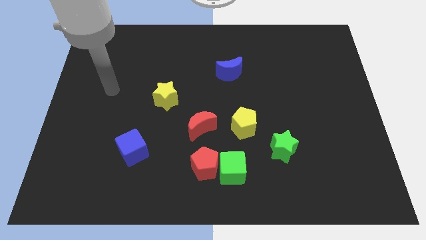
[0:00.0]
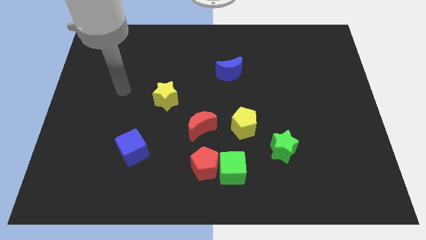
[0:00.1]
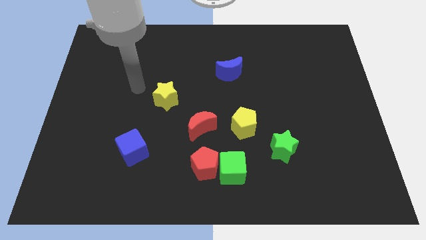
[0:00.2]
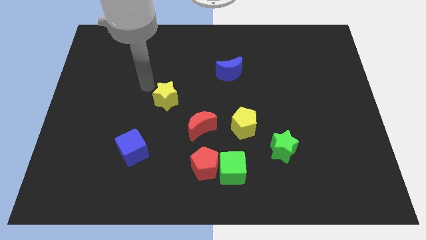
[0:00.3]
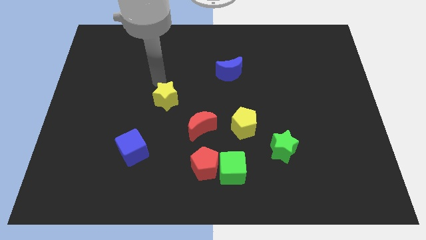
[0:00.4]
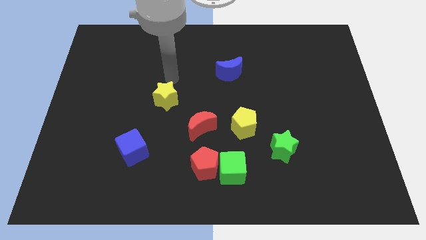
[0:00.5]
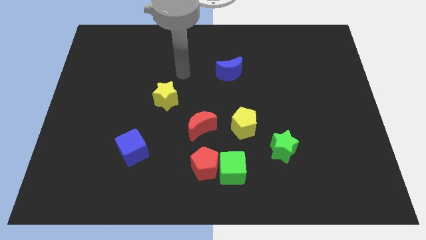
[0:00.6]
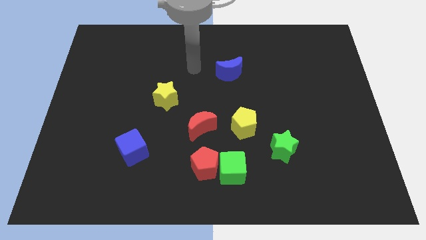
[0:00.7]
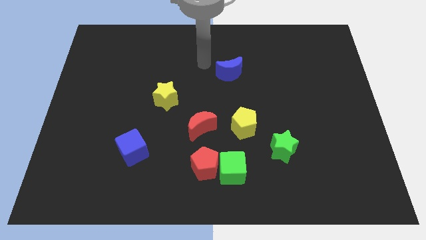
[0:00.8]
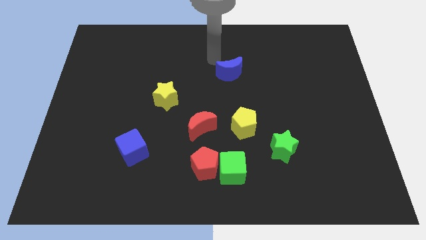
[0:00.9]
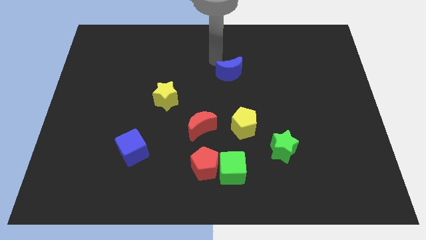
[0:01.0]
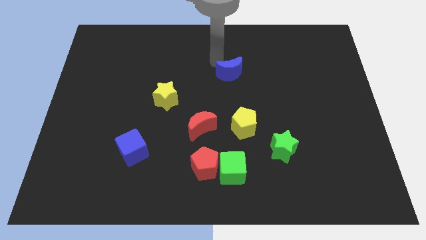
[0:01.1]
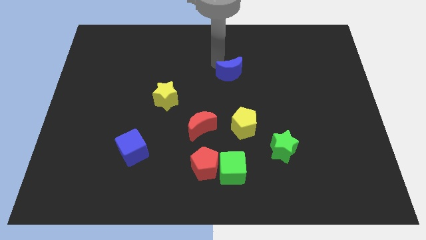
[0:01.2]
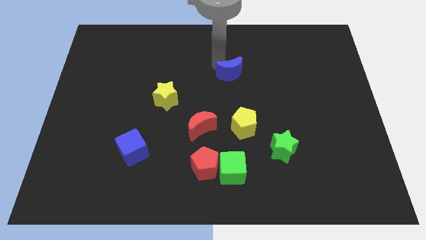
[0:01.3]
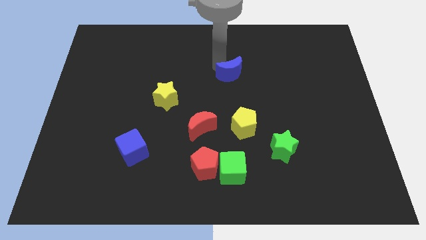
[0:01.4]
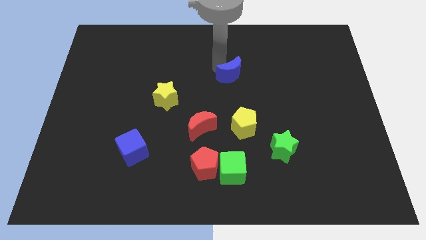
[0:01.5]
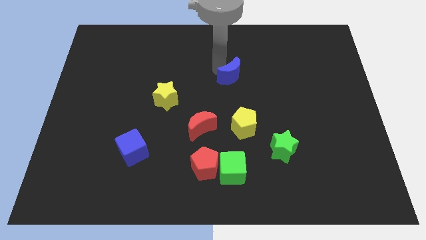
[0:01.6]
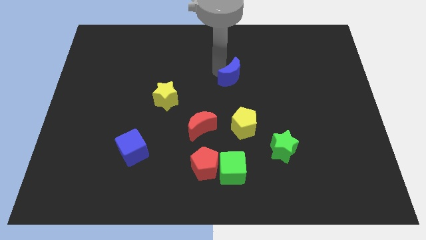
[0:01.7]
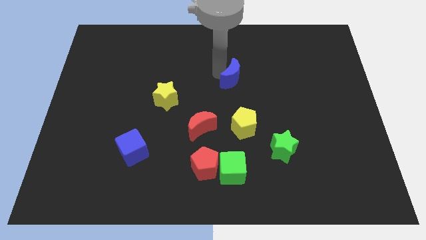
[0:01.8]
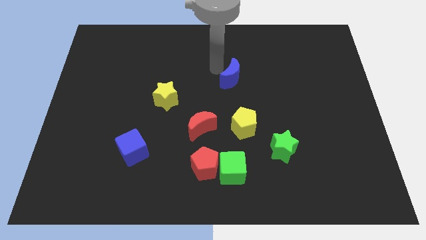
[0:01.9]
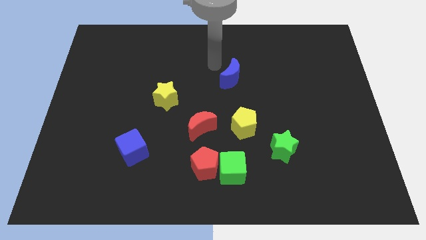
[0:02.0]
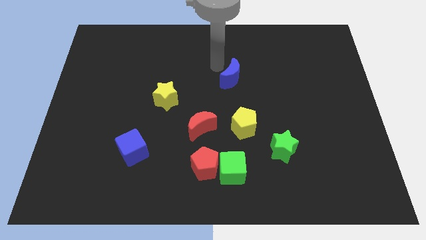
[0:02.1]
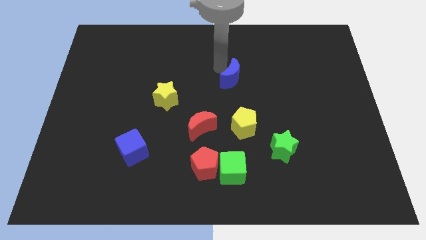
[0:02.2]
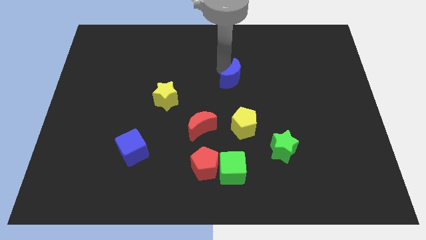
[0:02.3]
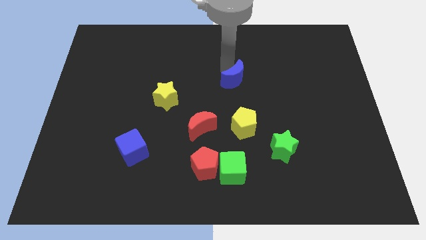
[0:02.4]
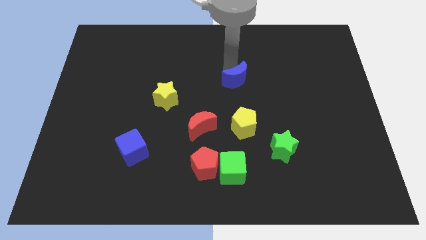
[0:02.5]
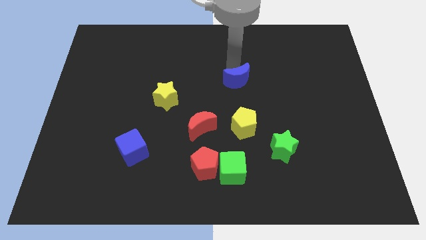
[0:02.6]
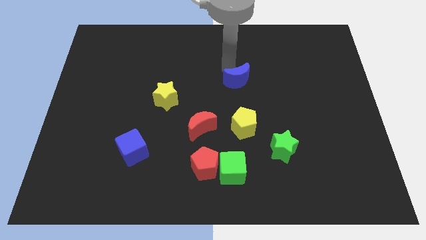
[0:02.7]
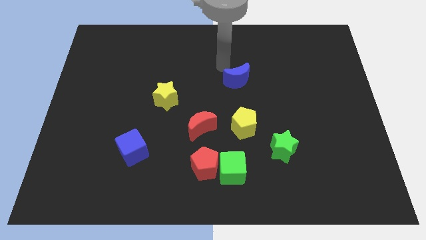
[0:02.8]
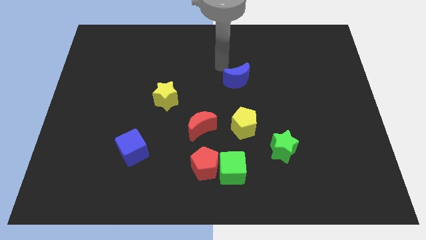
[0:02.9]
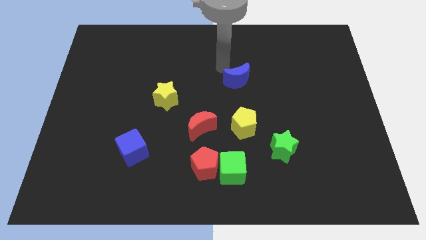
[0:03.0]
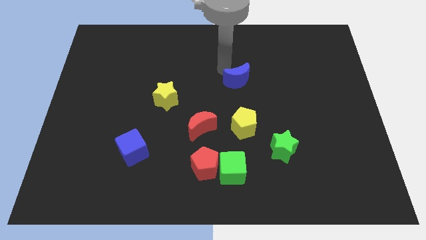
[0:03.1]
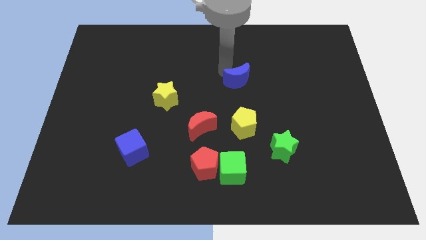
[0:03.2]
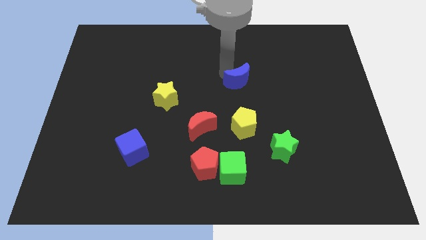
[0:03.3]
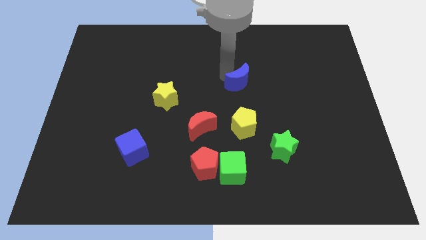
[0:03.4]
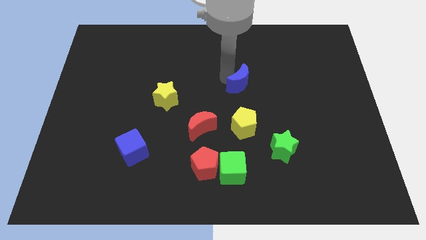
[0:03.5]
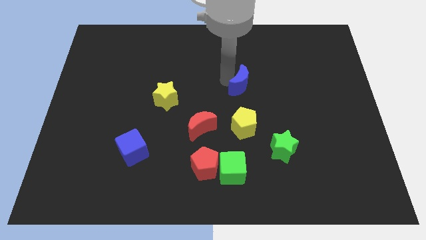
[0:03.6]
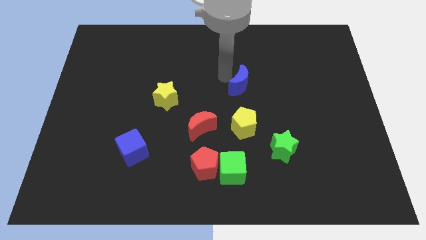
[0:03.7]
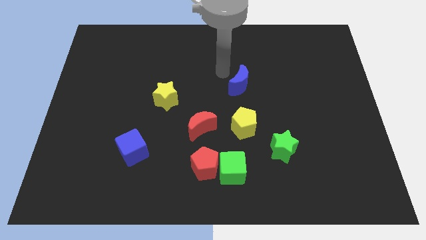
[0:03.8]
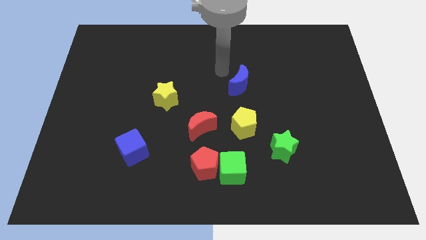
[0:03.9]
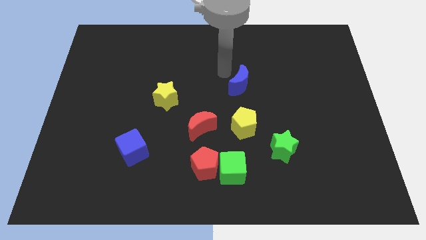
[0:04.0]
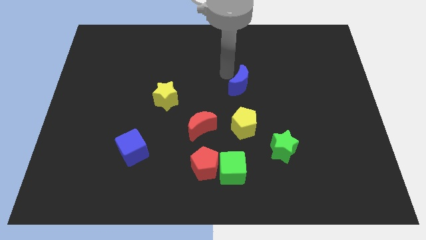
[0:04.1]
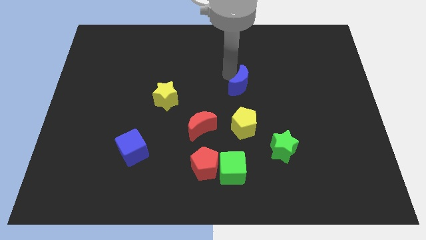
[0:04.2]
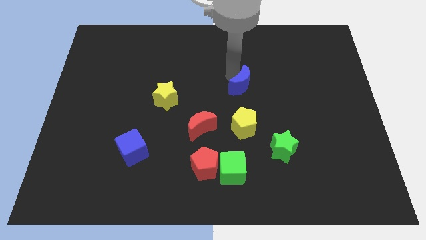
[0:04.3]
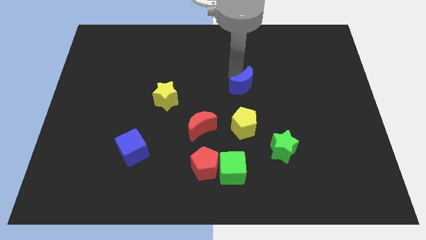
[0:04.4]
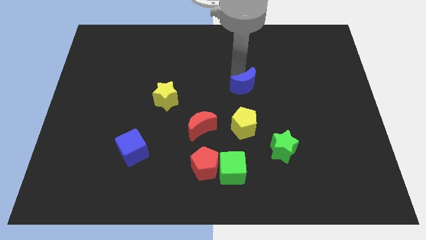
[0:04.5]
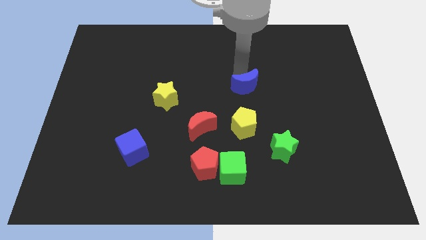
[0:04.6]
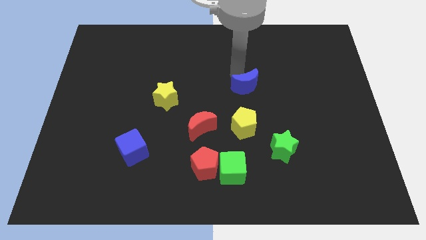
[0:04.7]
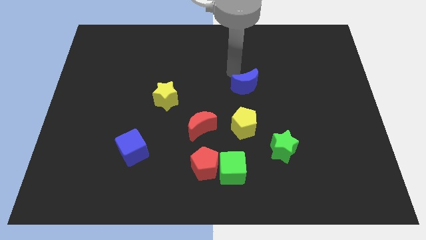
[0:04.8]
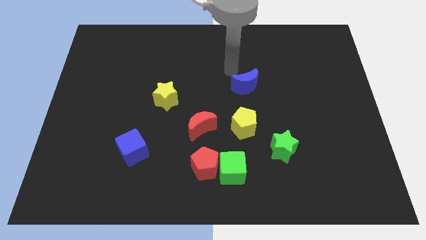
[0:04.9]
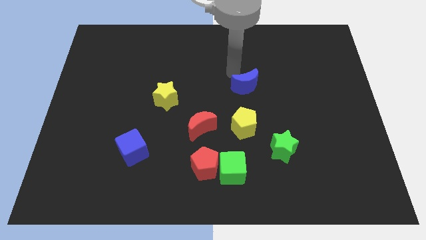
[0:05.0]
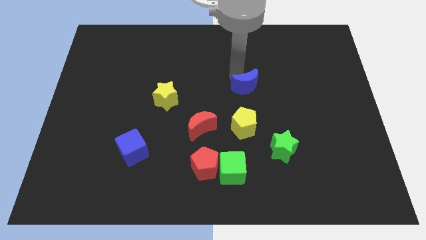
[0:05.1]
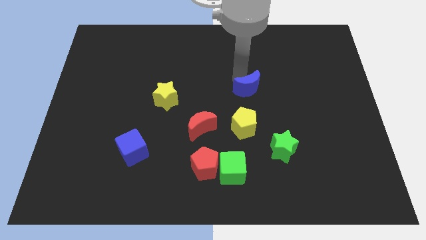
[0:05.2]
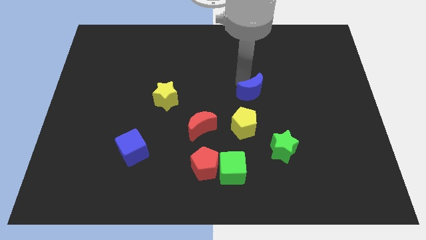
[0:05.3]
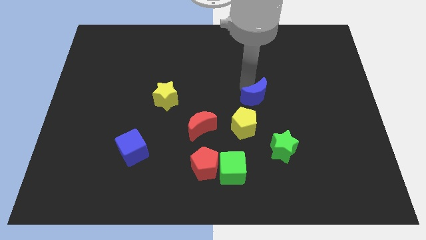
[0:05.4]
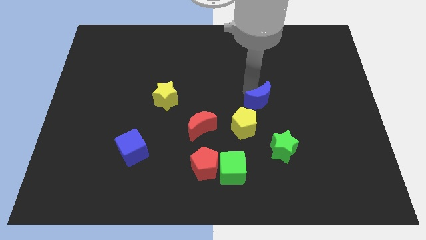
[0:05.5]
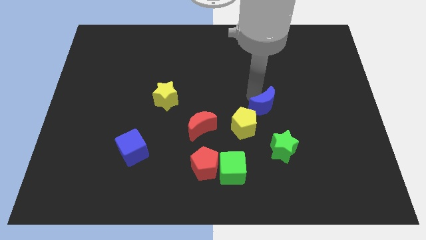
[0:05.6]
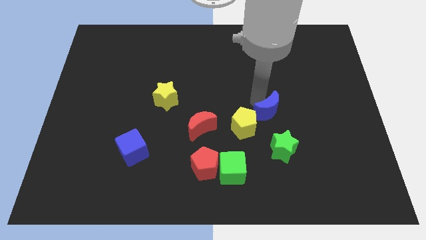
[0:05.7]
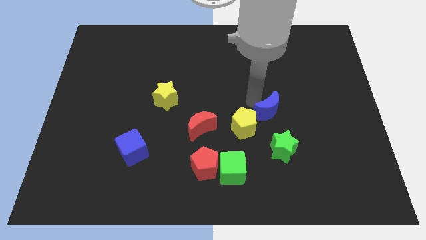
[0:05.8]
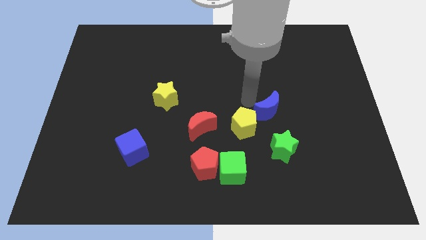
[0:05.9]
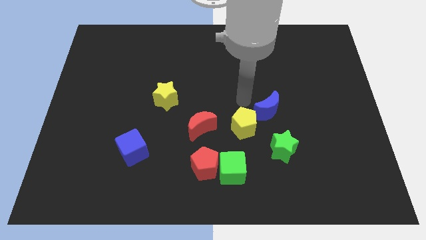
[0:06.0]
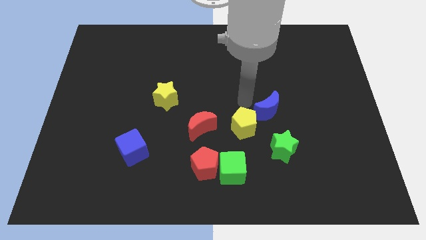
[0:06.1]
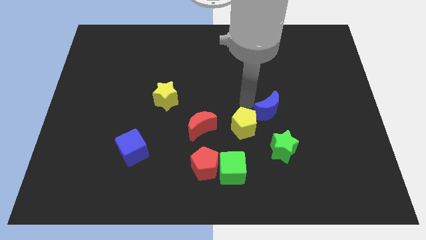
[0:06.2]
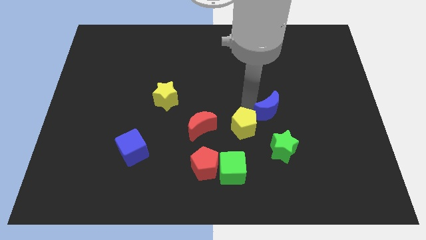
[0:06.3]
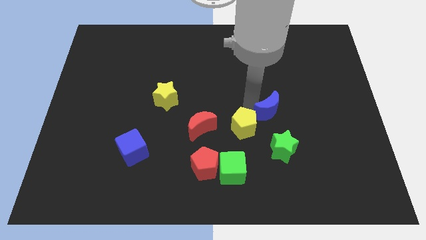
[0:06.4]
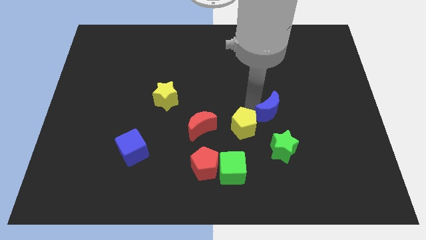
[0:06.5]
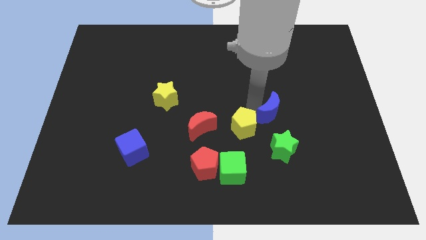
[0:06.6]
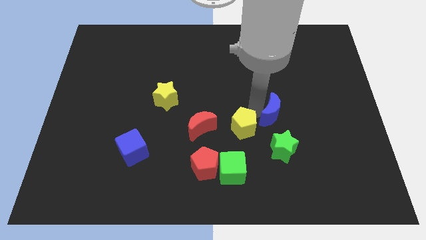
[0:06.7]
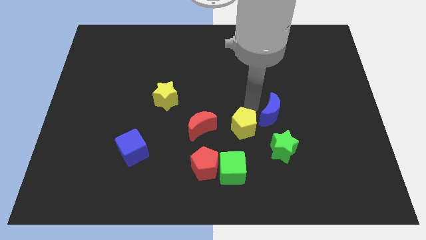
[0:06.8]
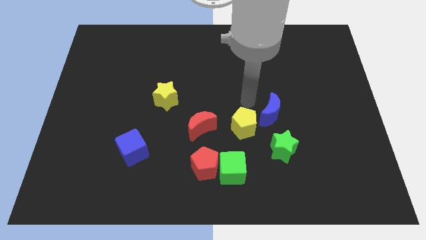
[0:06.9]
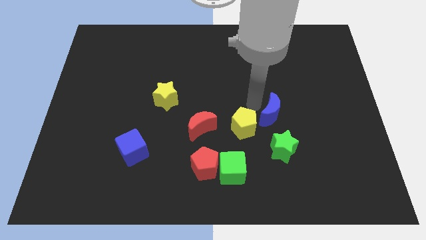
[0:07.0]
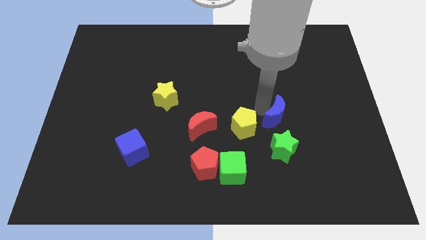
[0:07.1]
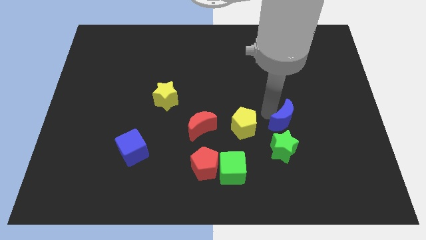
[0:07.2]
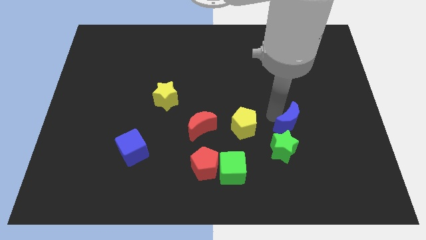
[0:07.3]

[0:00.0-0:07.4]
move the blue moon diagonally down and to the right

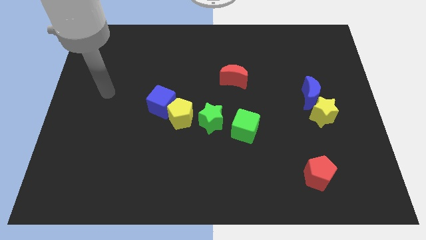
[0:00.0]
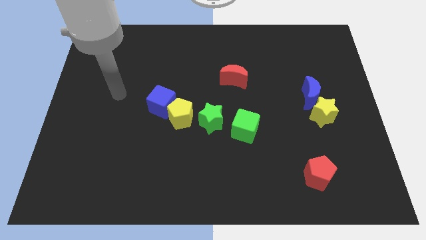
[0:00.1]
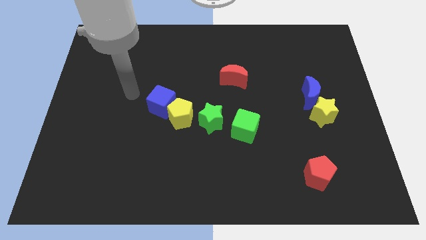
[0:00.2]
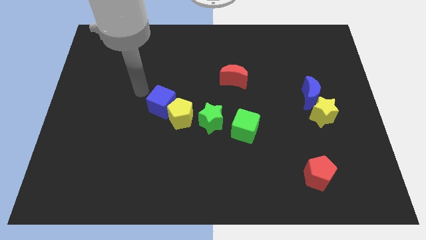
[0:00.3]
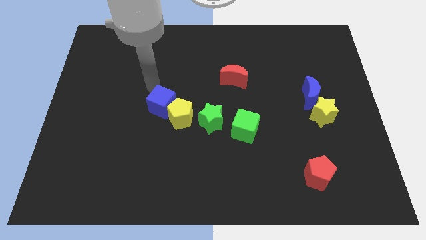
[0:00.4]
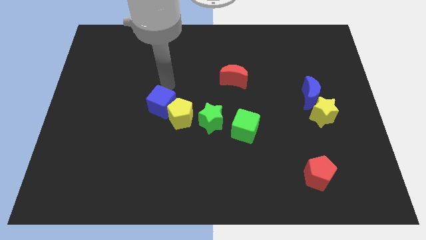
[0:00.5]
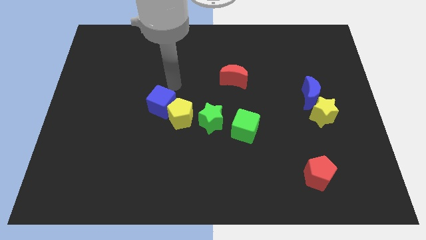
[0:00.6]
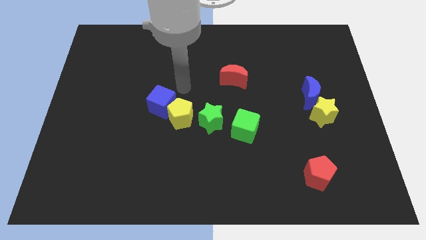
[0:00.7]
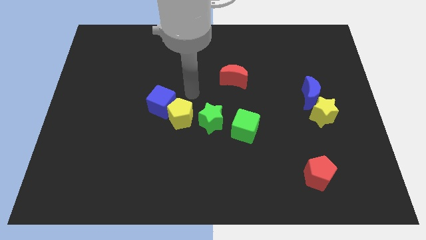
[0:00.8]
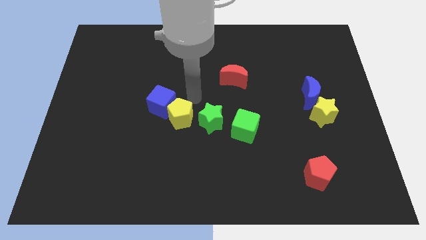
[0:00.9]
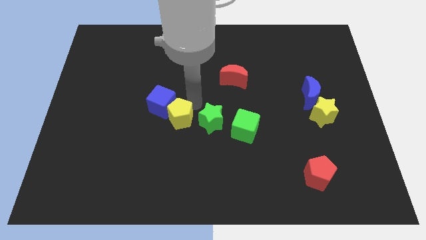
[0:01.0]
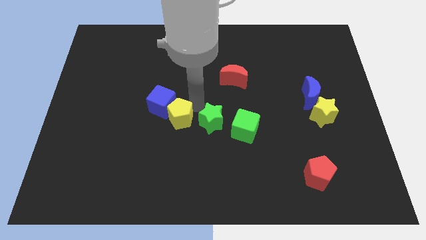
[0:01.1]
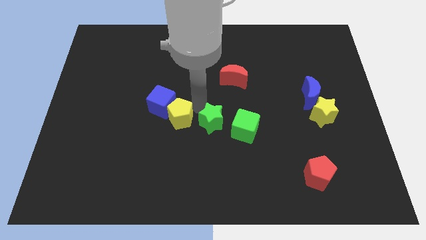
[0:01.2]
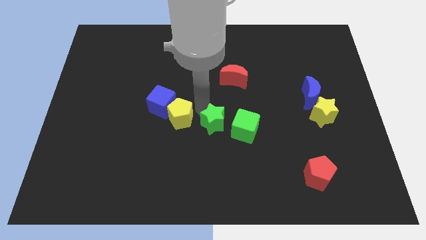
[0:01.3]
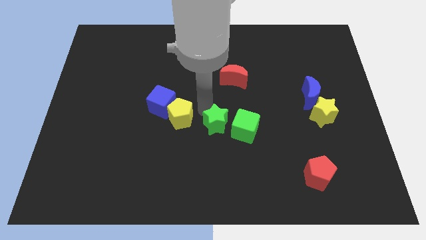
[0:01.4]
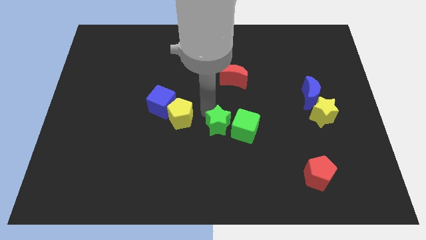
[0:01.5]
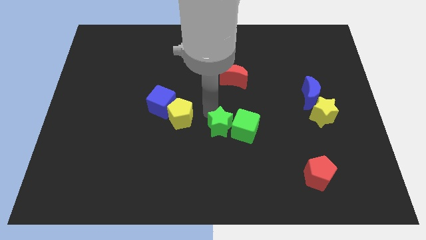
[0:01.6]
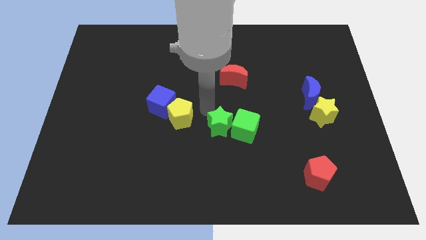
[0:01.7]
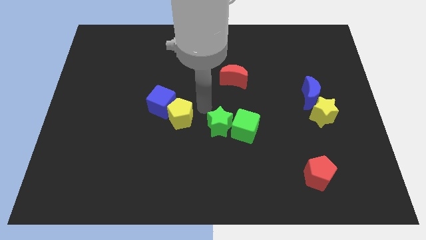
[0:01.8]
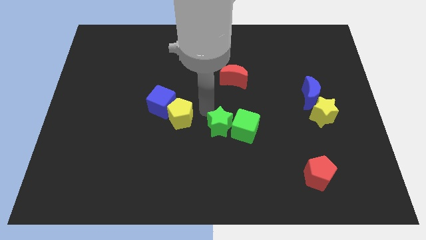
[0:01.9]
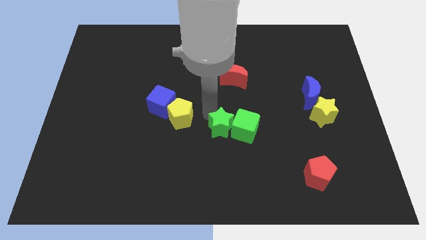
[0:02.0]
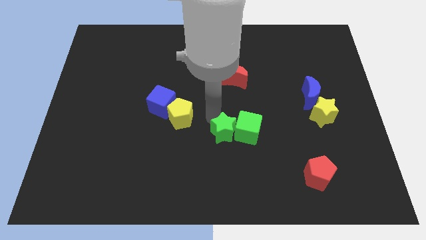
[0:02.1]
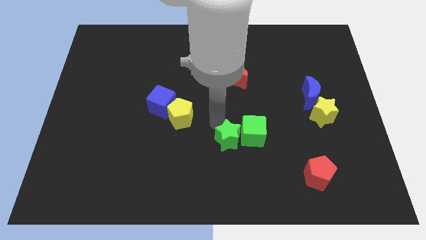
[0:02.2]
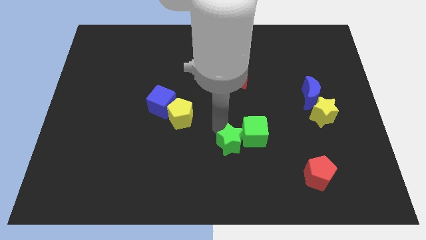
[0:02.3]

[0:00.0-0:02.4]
slightly push the green star downwards and to the right
